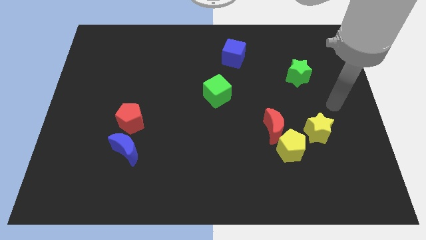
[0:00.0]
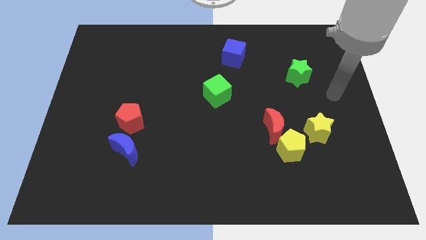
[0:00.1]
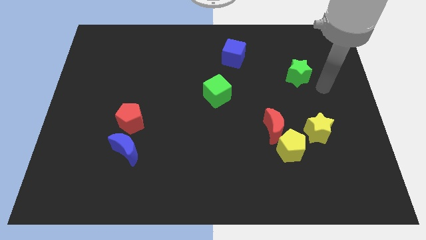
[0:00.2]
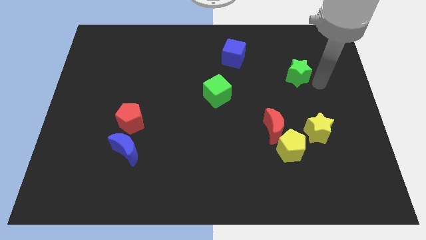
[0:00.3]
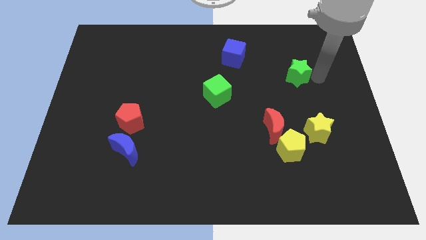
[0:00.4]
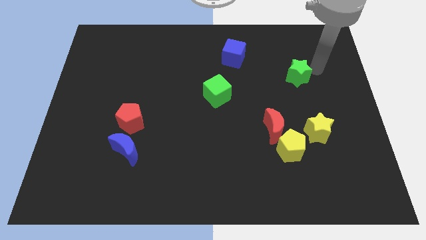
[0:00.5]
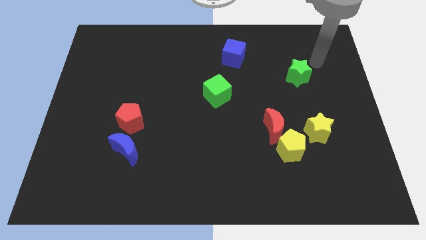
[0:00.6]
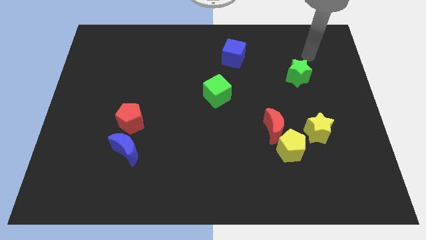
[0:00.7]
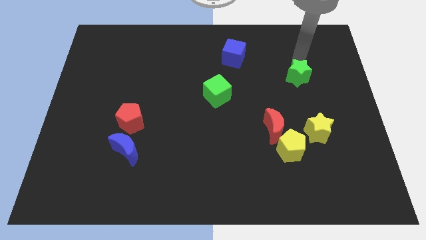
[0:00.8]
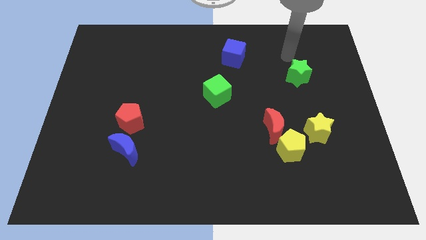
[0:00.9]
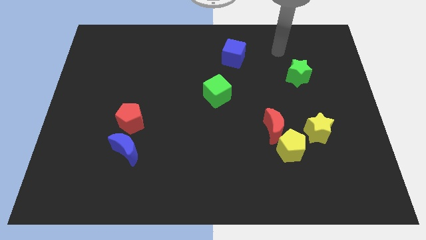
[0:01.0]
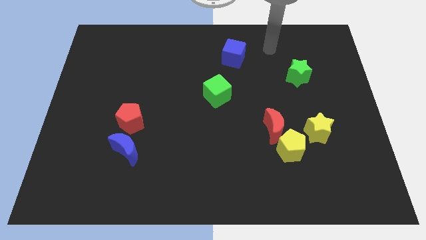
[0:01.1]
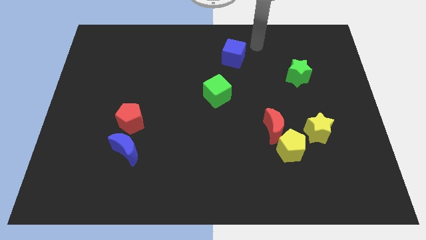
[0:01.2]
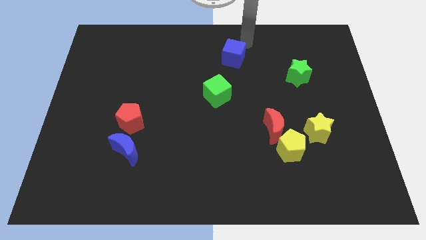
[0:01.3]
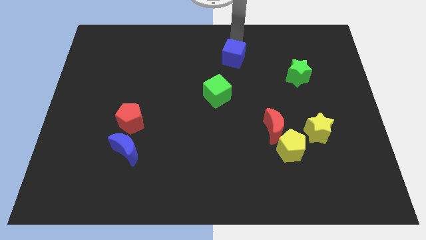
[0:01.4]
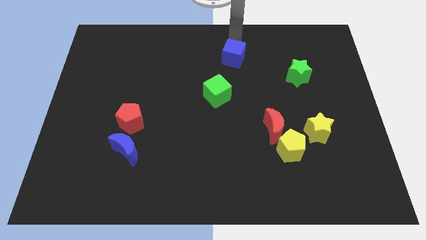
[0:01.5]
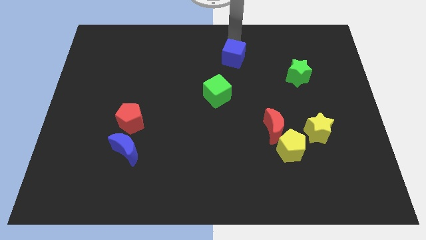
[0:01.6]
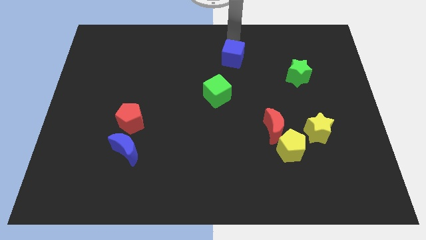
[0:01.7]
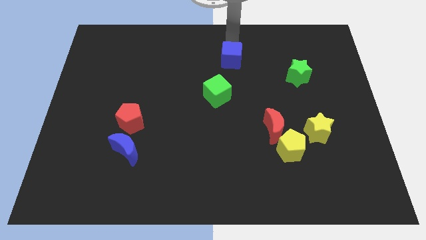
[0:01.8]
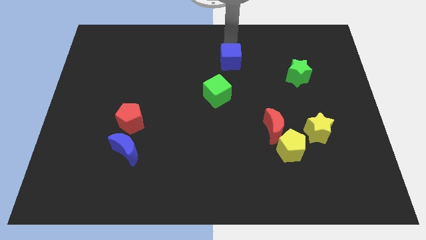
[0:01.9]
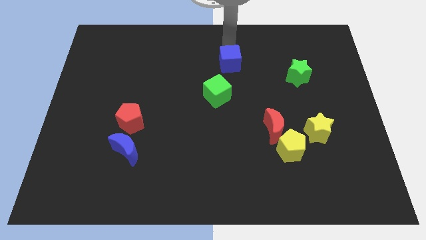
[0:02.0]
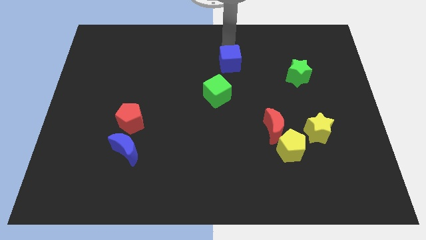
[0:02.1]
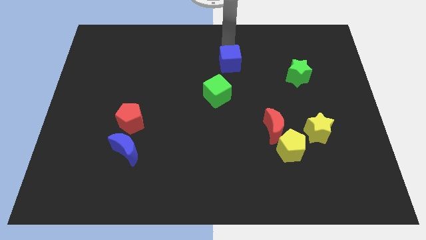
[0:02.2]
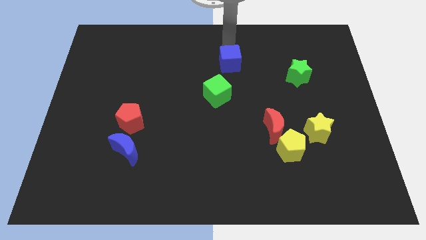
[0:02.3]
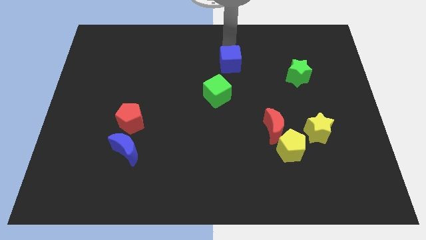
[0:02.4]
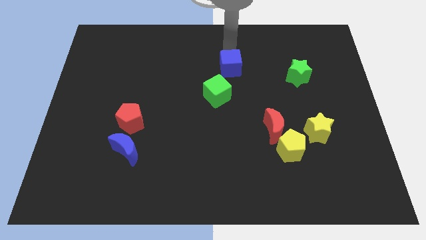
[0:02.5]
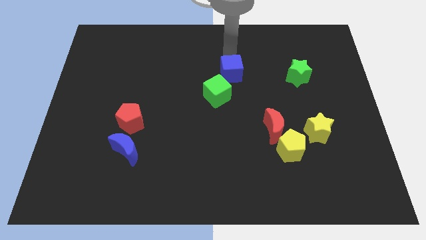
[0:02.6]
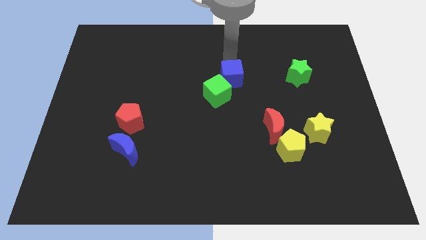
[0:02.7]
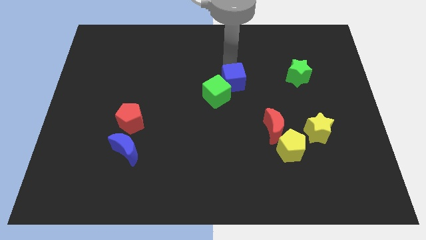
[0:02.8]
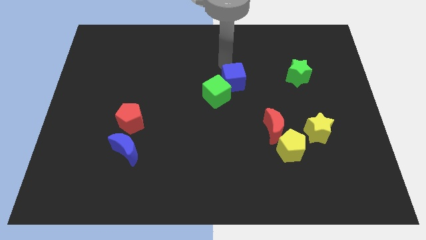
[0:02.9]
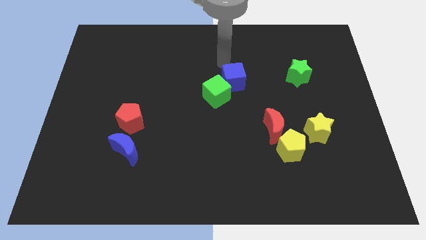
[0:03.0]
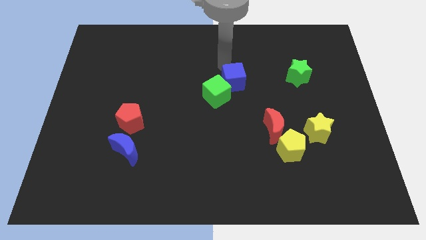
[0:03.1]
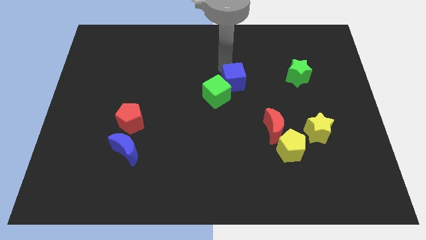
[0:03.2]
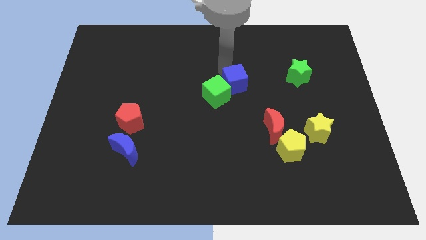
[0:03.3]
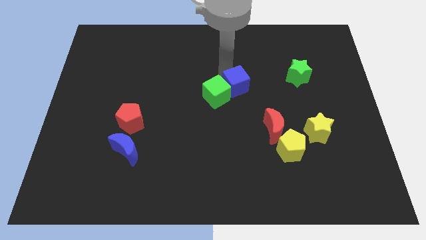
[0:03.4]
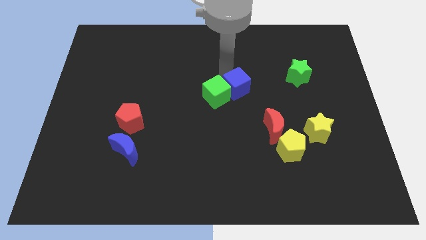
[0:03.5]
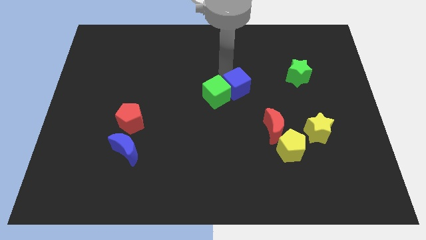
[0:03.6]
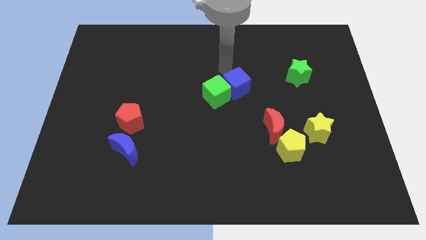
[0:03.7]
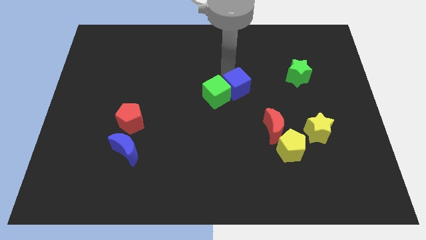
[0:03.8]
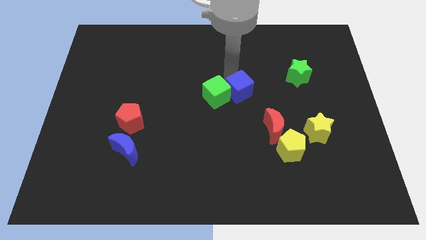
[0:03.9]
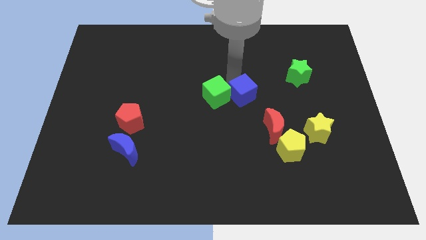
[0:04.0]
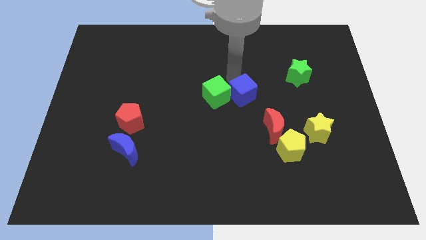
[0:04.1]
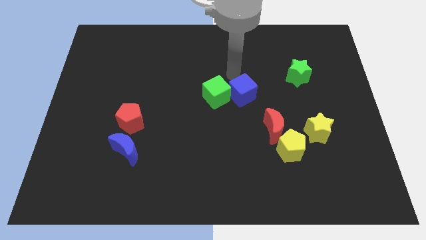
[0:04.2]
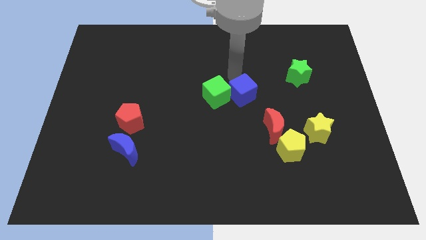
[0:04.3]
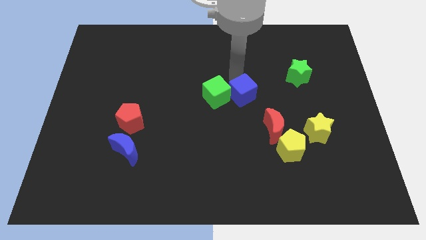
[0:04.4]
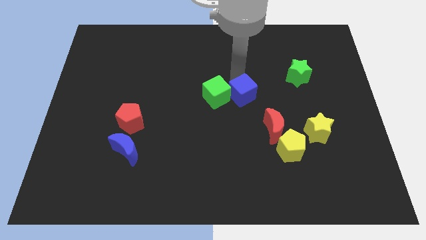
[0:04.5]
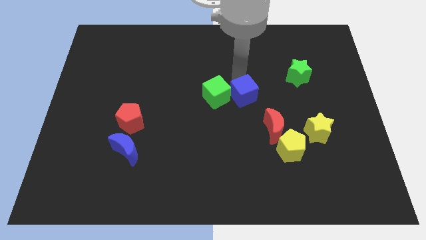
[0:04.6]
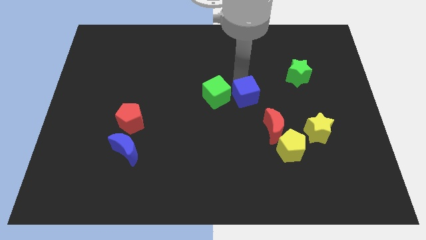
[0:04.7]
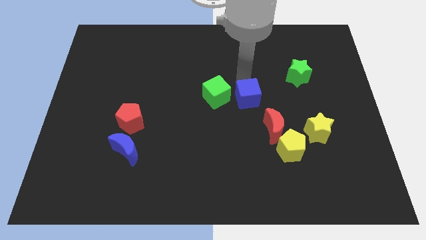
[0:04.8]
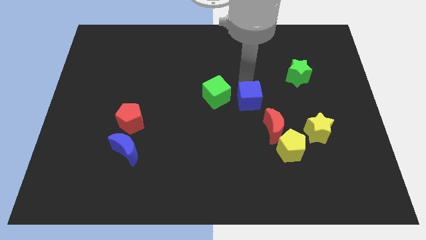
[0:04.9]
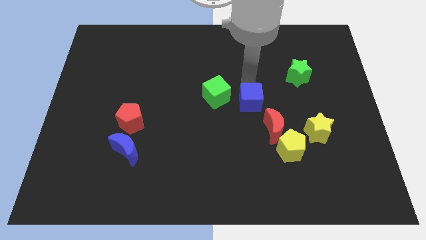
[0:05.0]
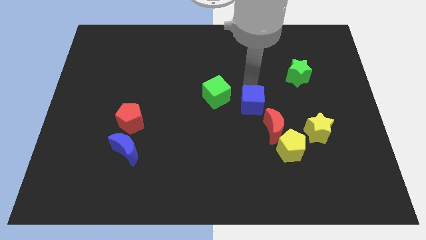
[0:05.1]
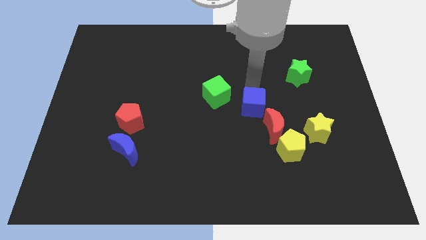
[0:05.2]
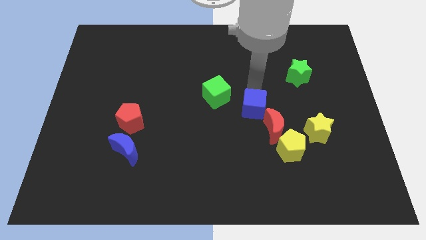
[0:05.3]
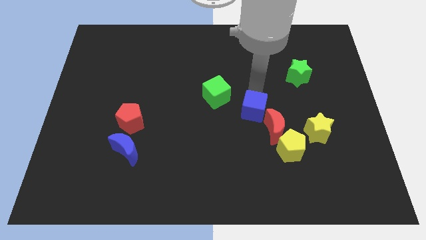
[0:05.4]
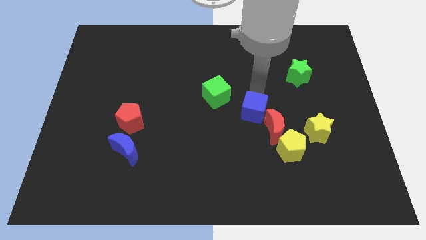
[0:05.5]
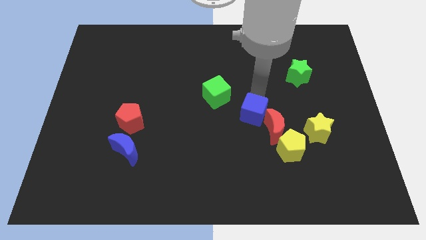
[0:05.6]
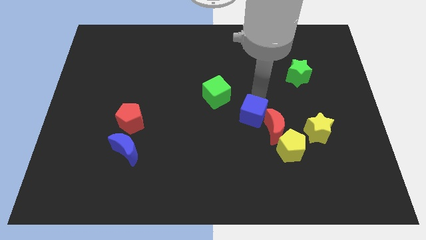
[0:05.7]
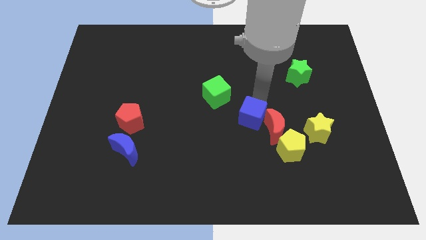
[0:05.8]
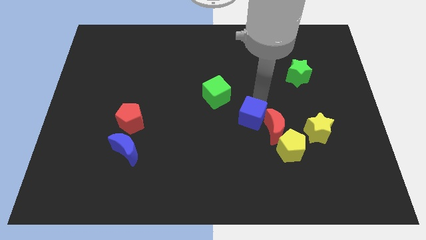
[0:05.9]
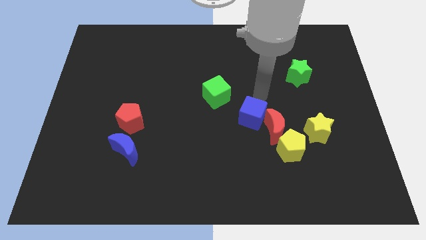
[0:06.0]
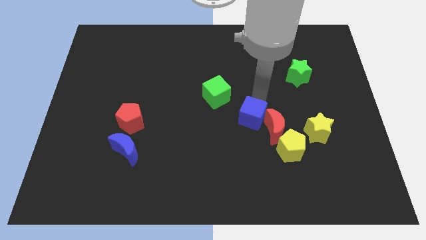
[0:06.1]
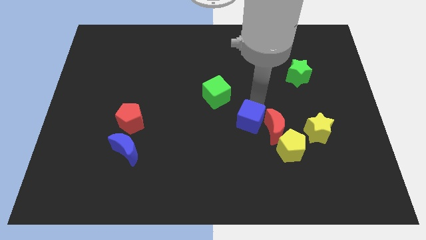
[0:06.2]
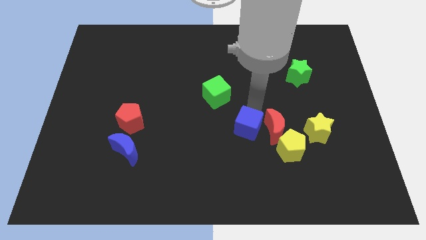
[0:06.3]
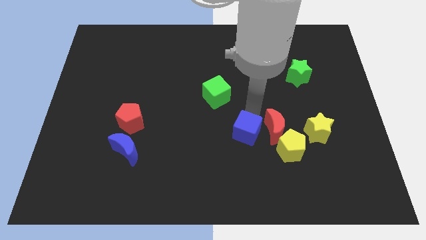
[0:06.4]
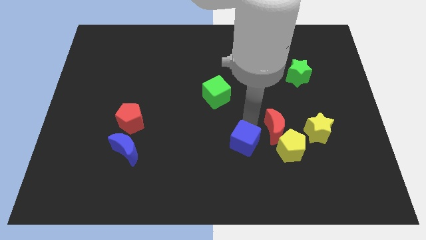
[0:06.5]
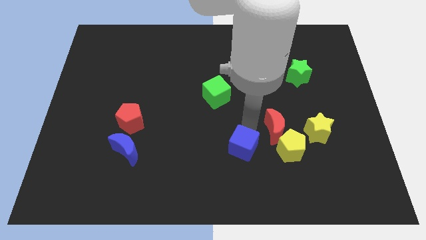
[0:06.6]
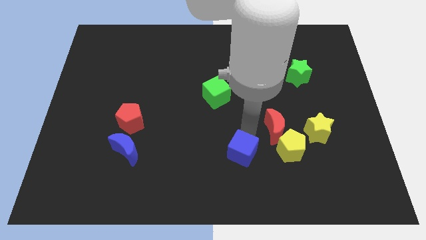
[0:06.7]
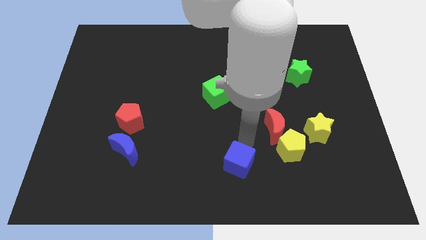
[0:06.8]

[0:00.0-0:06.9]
slide the blue cube to the bottom
